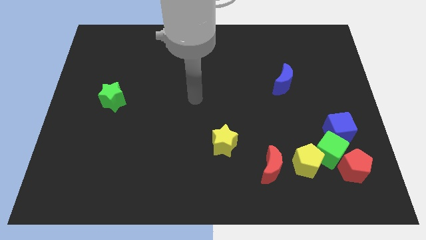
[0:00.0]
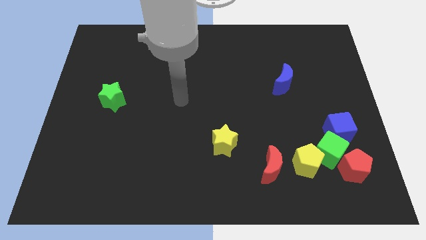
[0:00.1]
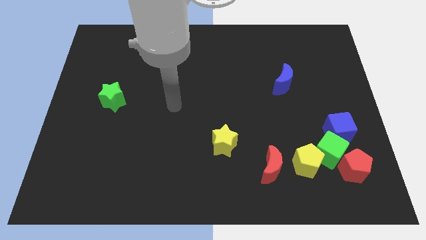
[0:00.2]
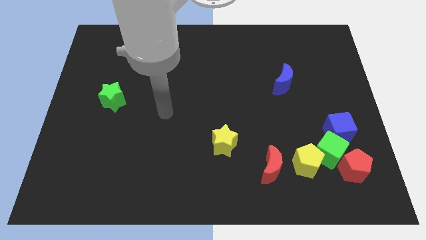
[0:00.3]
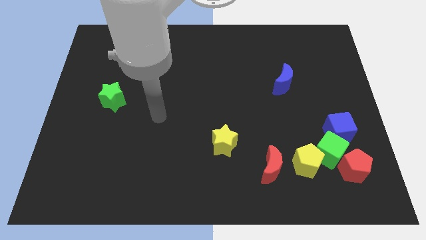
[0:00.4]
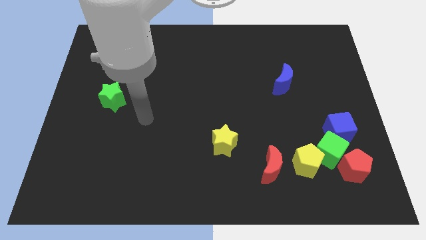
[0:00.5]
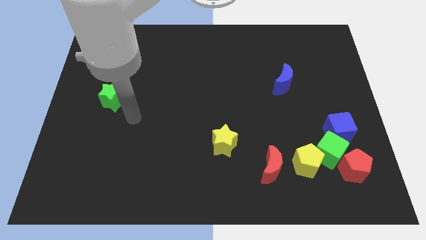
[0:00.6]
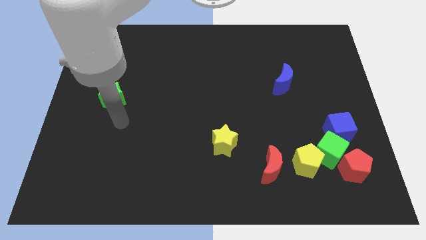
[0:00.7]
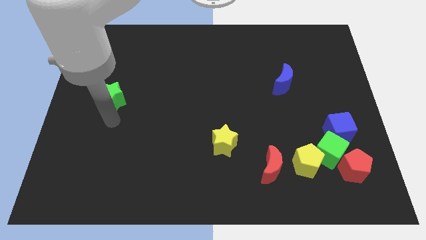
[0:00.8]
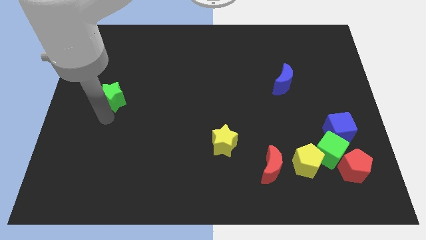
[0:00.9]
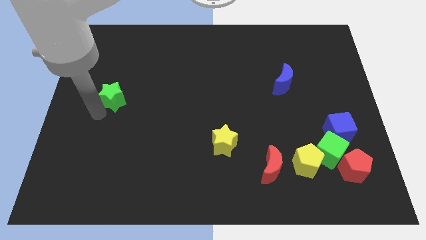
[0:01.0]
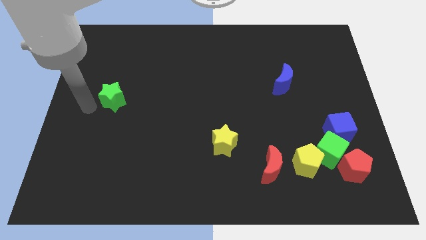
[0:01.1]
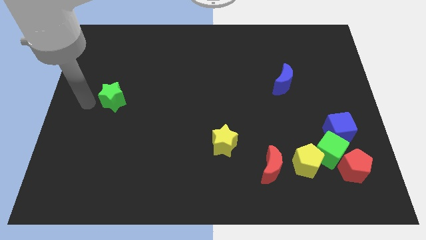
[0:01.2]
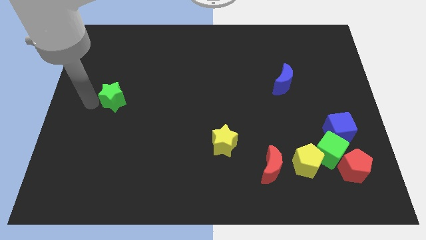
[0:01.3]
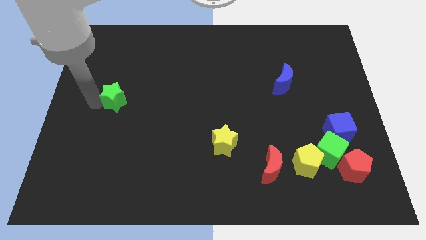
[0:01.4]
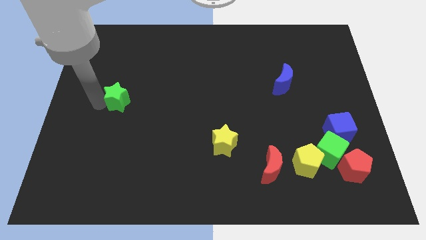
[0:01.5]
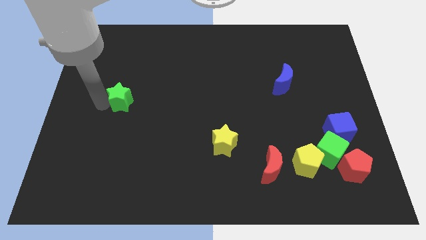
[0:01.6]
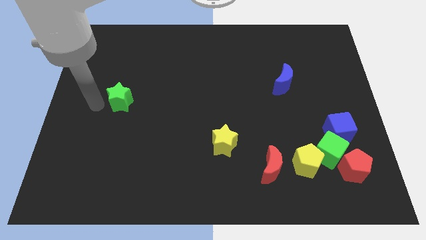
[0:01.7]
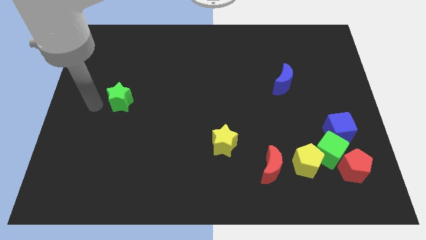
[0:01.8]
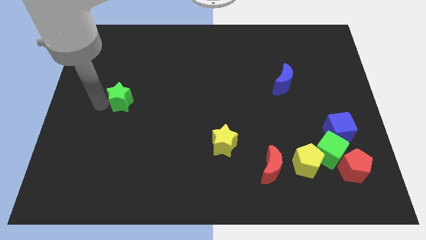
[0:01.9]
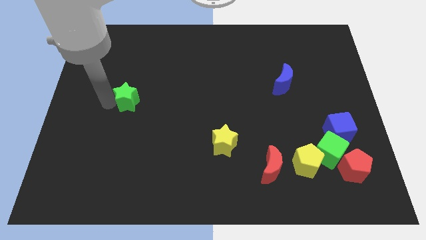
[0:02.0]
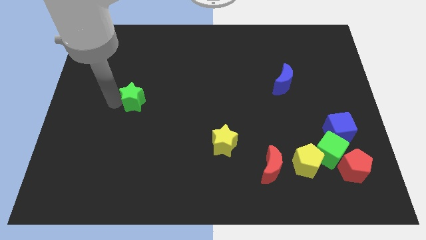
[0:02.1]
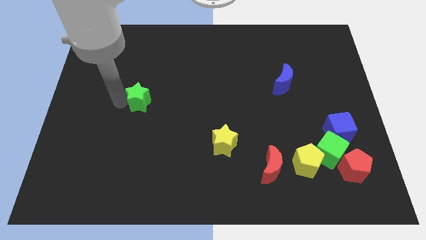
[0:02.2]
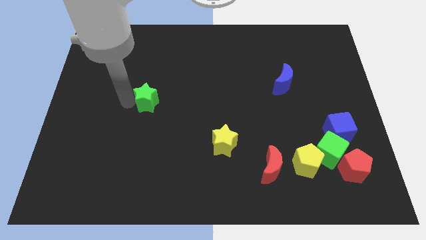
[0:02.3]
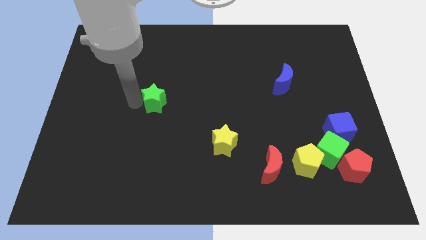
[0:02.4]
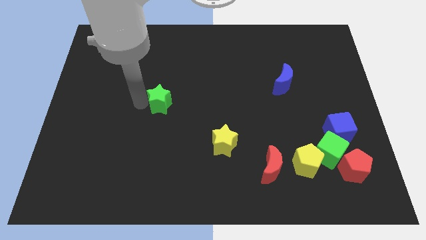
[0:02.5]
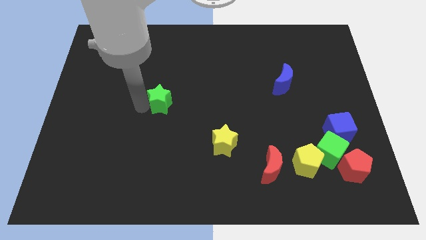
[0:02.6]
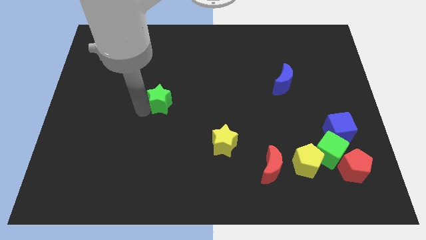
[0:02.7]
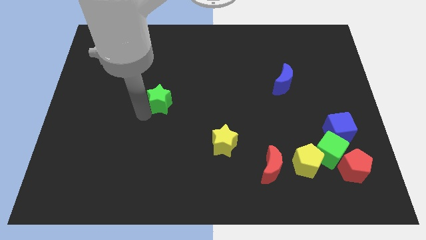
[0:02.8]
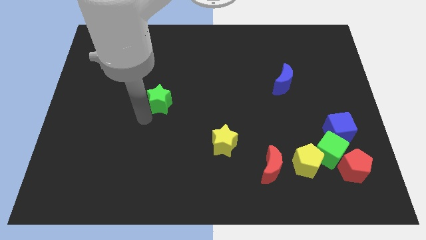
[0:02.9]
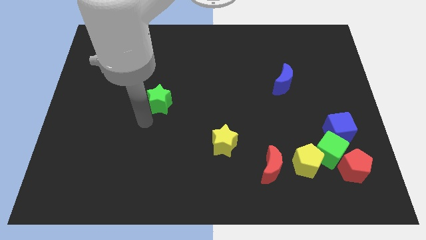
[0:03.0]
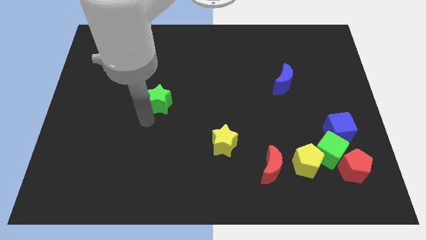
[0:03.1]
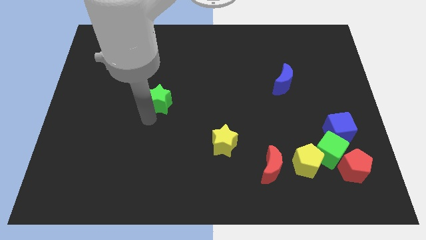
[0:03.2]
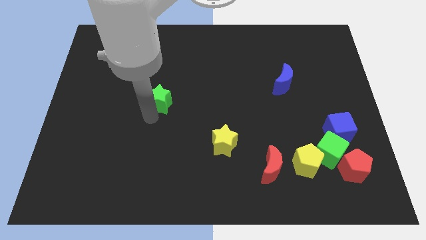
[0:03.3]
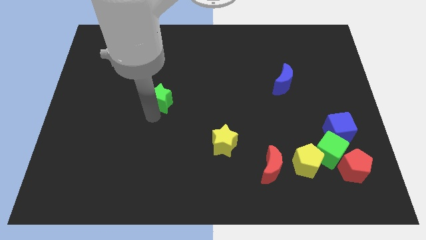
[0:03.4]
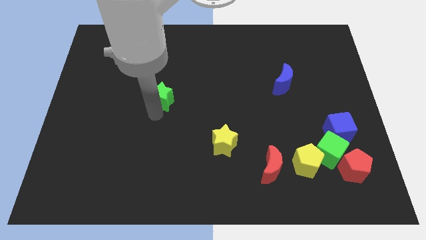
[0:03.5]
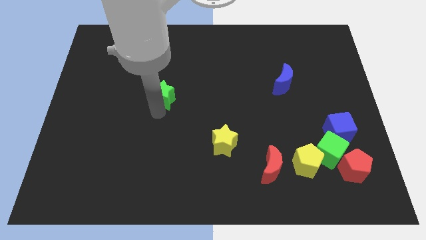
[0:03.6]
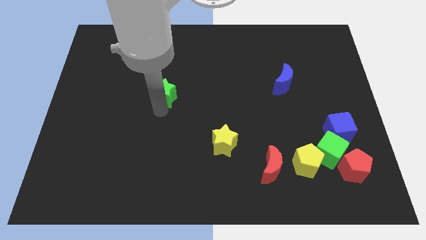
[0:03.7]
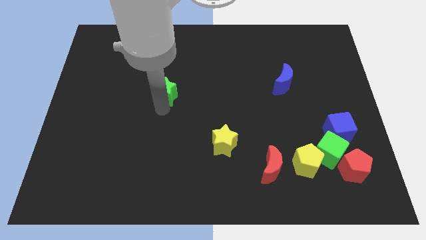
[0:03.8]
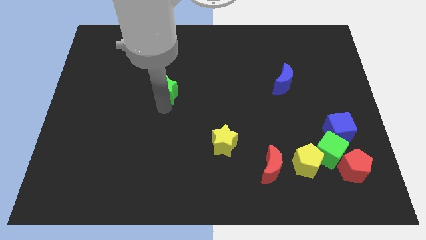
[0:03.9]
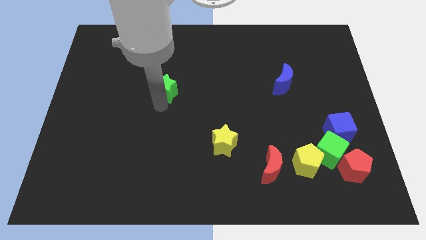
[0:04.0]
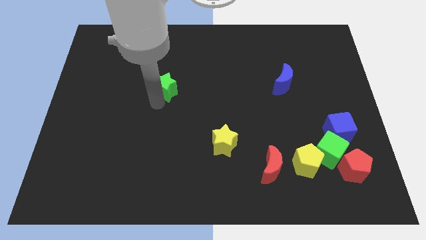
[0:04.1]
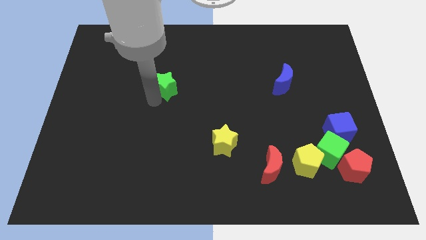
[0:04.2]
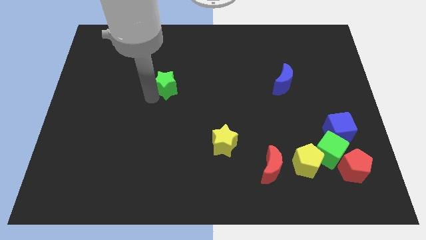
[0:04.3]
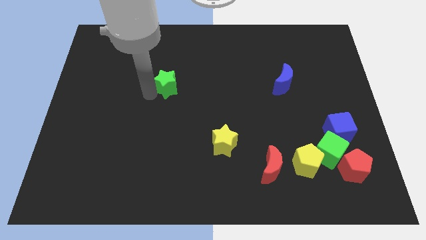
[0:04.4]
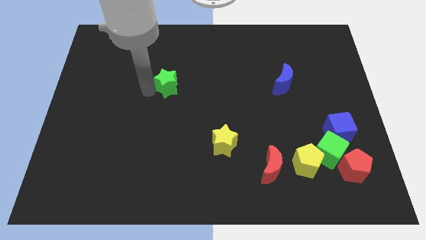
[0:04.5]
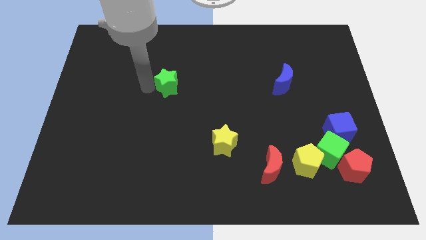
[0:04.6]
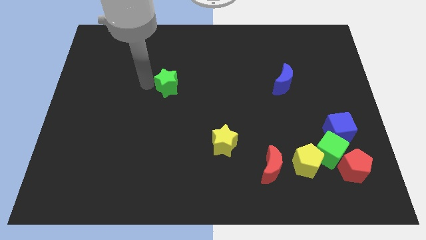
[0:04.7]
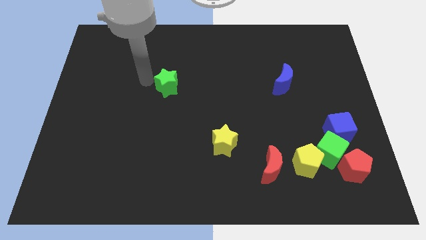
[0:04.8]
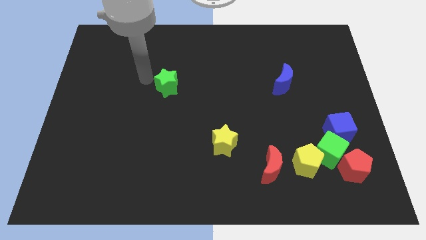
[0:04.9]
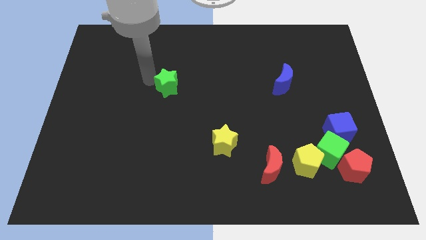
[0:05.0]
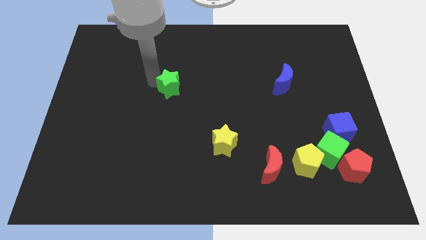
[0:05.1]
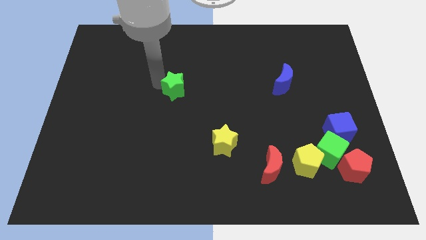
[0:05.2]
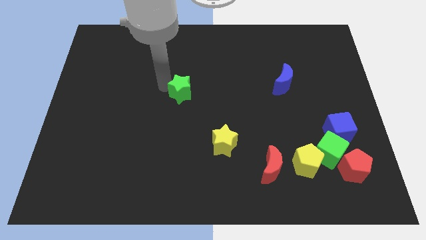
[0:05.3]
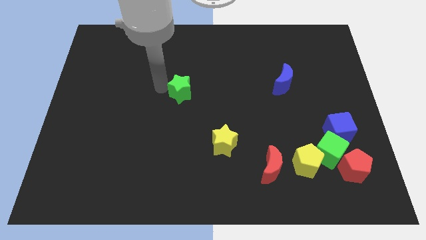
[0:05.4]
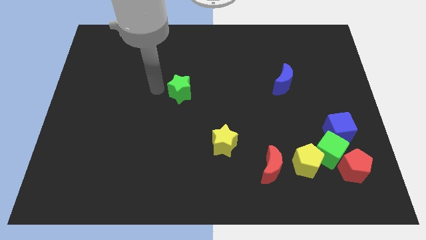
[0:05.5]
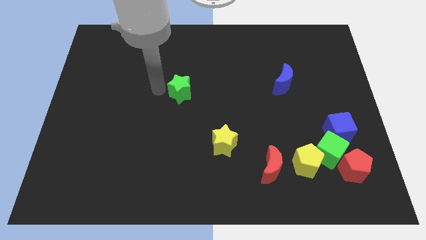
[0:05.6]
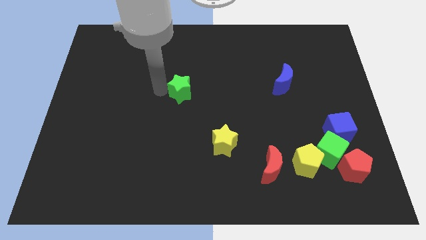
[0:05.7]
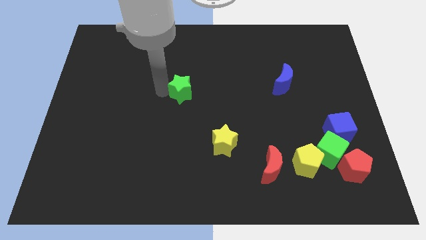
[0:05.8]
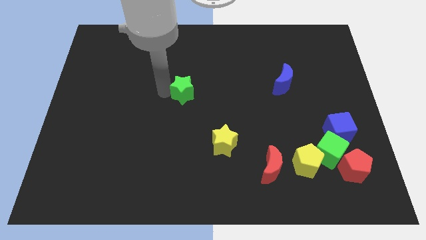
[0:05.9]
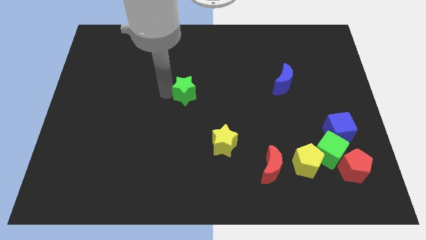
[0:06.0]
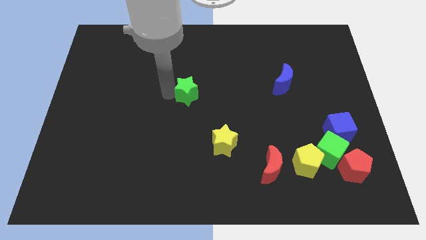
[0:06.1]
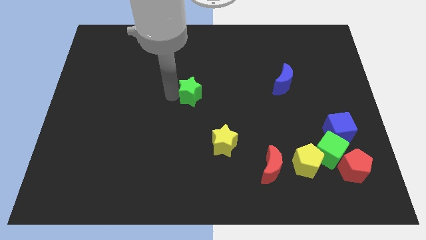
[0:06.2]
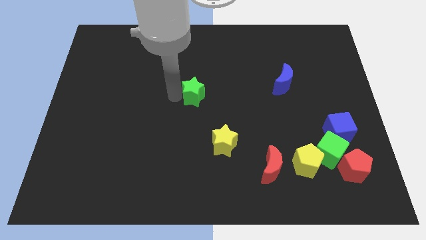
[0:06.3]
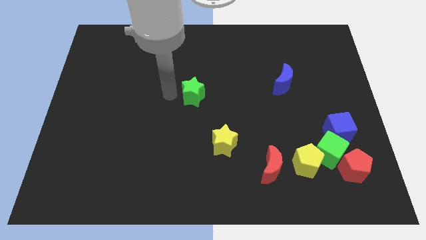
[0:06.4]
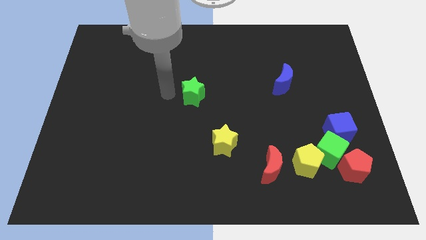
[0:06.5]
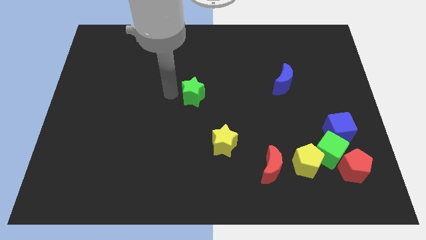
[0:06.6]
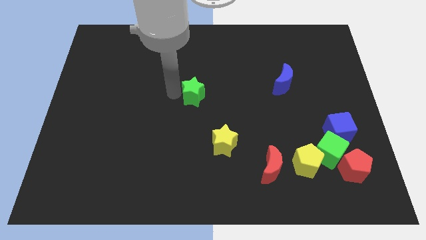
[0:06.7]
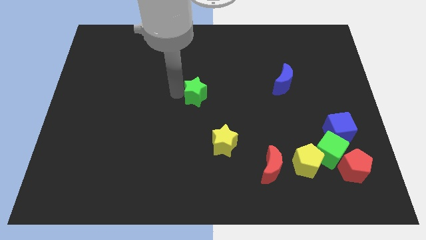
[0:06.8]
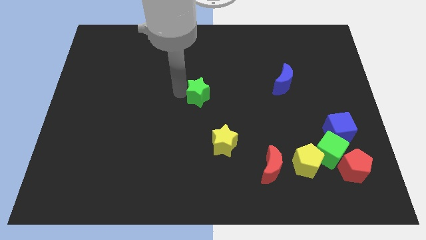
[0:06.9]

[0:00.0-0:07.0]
slide the green star to the right

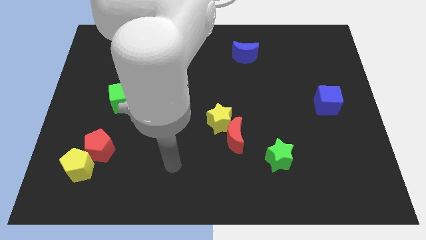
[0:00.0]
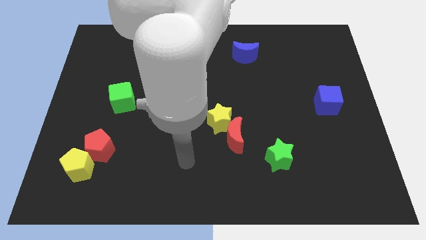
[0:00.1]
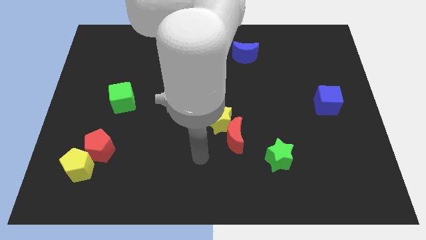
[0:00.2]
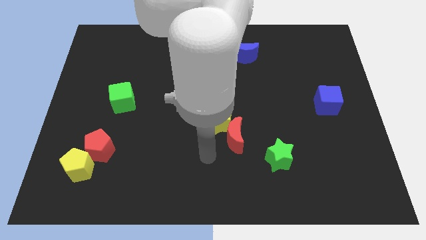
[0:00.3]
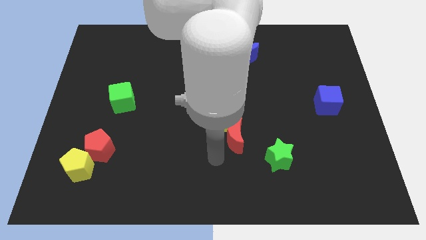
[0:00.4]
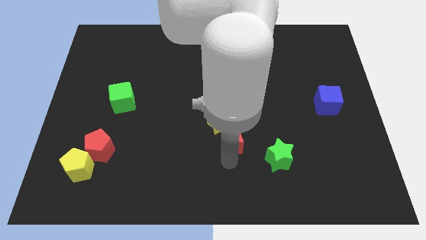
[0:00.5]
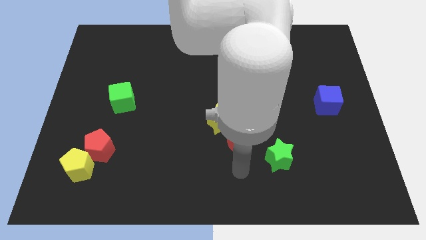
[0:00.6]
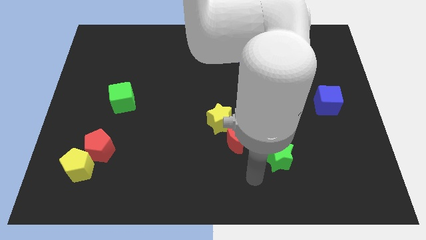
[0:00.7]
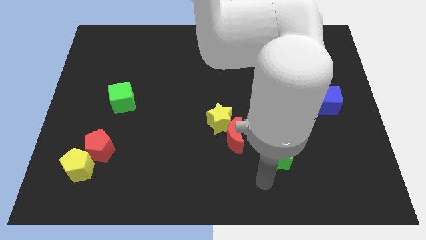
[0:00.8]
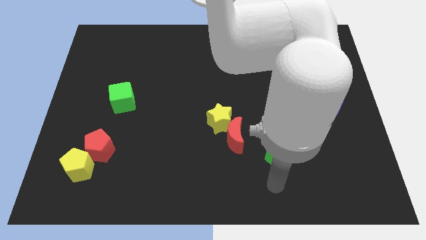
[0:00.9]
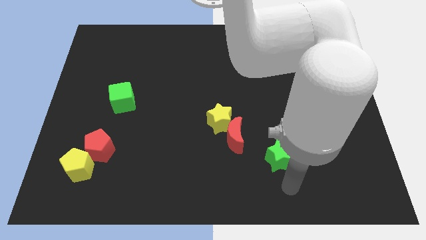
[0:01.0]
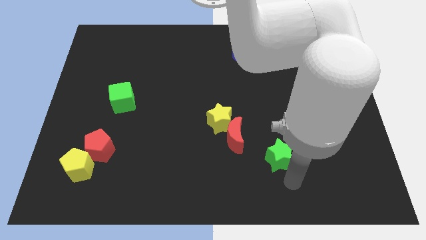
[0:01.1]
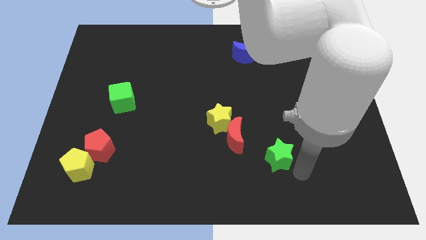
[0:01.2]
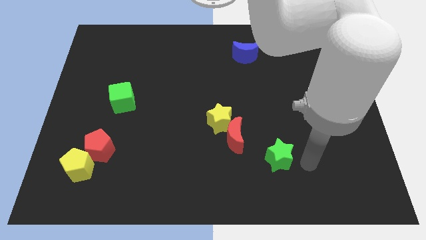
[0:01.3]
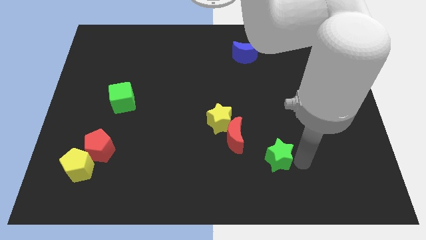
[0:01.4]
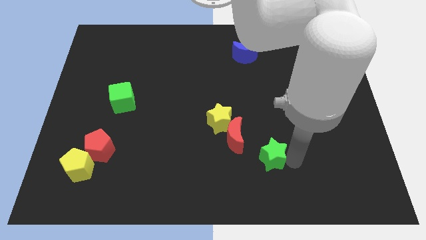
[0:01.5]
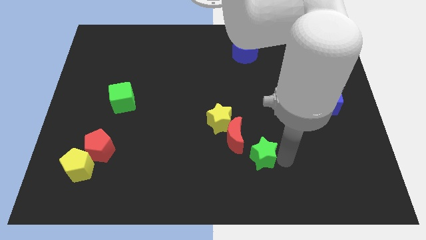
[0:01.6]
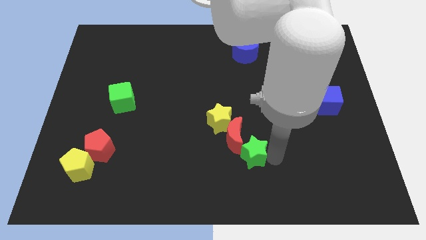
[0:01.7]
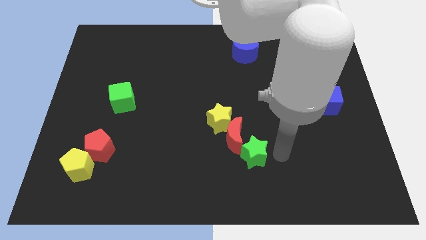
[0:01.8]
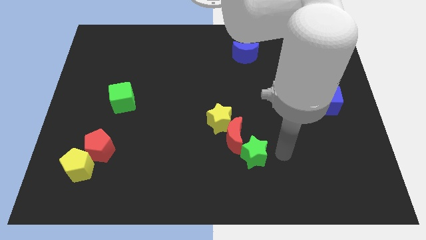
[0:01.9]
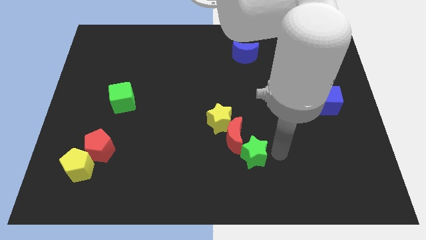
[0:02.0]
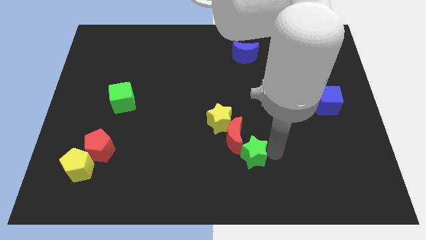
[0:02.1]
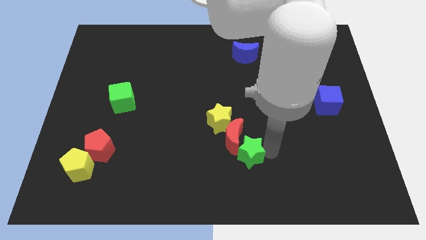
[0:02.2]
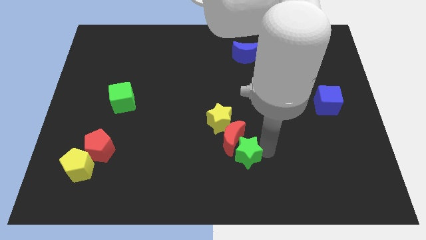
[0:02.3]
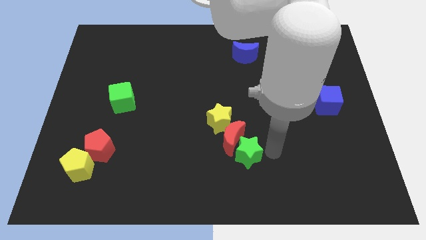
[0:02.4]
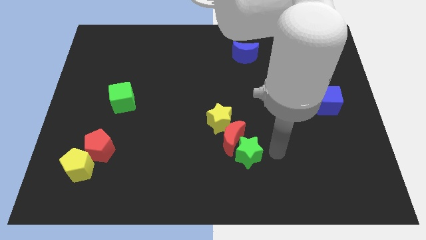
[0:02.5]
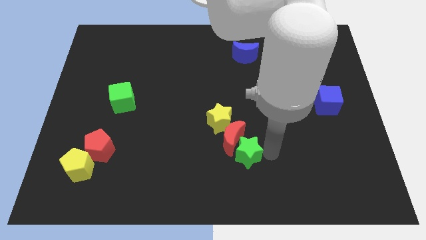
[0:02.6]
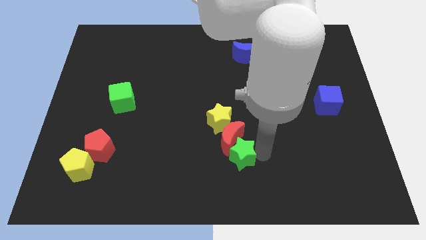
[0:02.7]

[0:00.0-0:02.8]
move the green star a bit left
